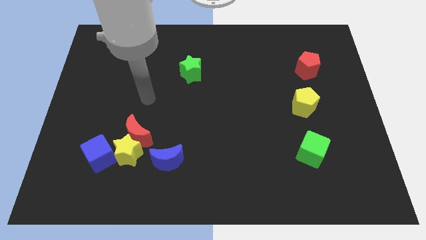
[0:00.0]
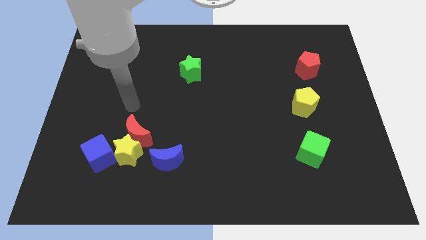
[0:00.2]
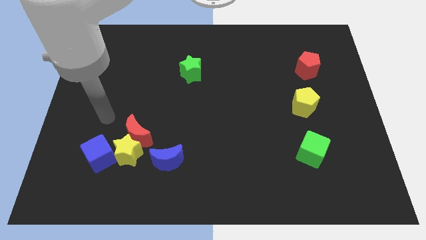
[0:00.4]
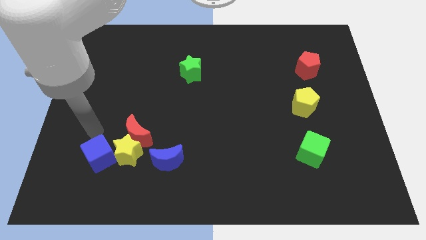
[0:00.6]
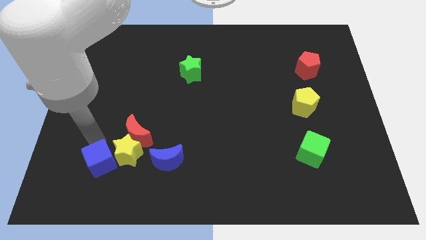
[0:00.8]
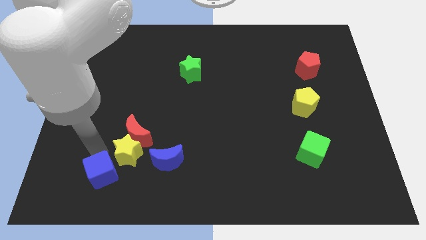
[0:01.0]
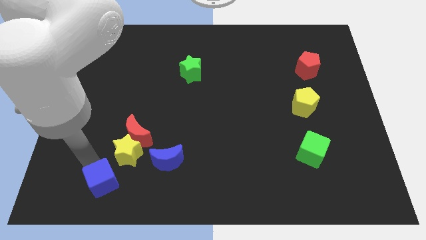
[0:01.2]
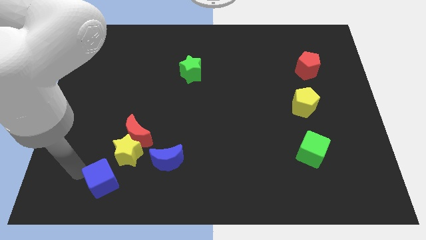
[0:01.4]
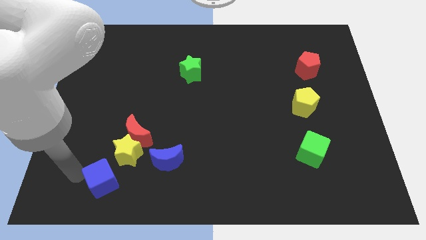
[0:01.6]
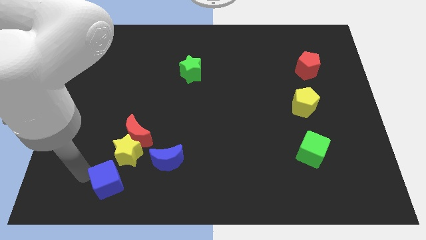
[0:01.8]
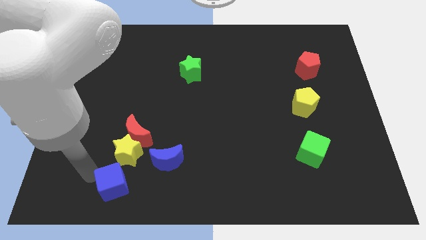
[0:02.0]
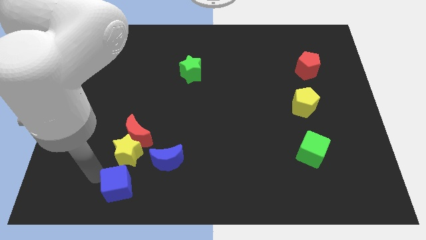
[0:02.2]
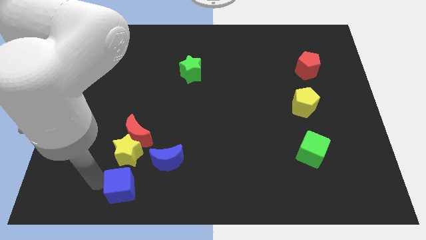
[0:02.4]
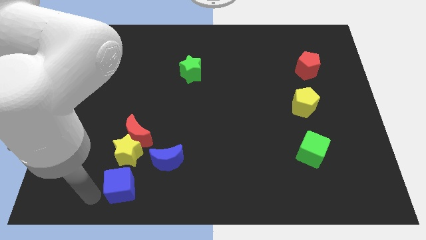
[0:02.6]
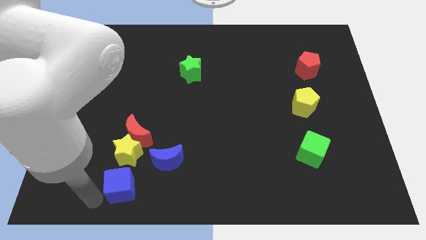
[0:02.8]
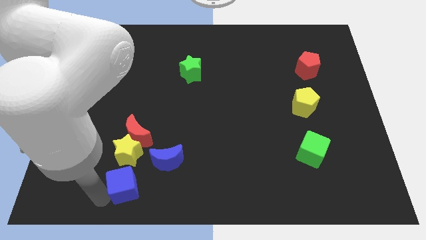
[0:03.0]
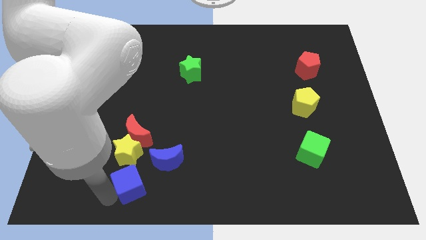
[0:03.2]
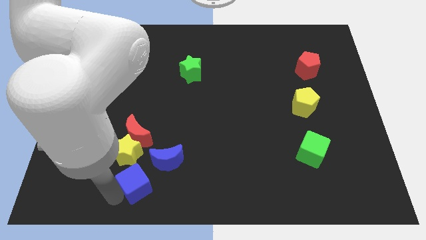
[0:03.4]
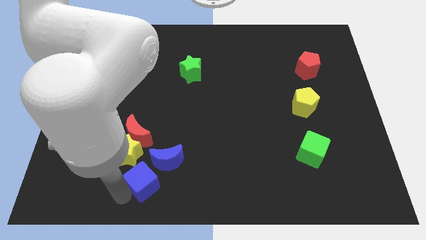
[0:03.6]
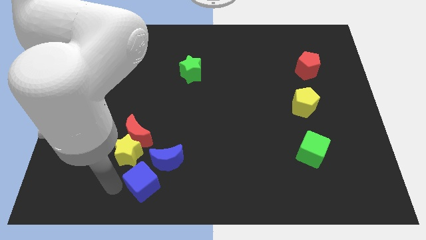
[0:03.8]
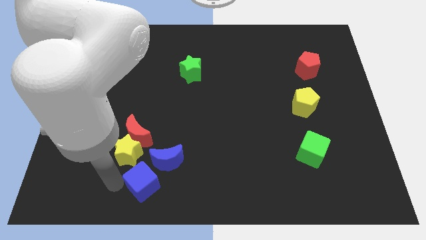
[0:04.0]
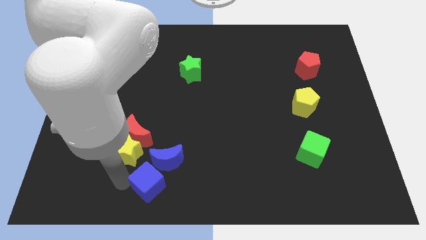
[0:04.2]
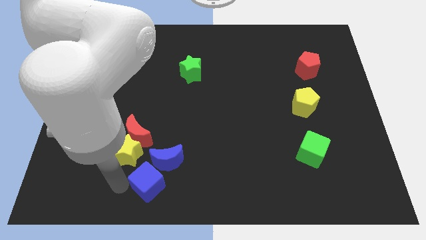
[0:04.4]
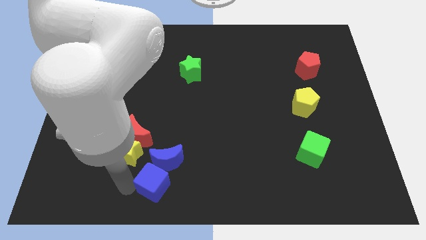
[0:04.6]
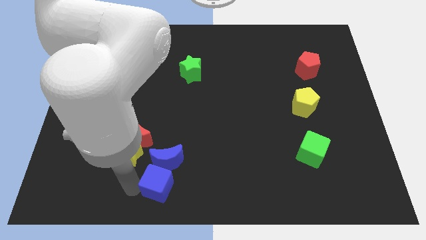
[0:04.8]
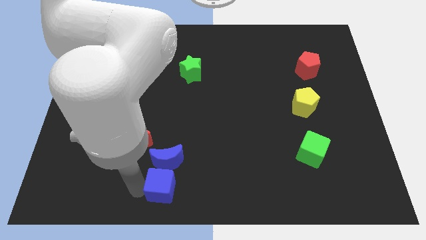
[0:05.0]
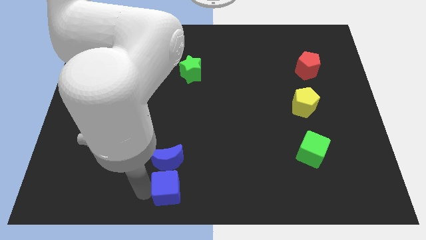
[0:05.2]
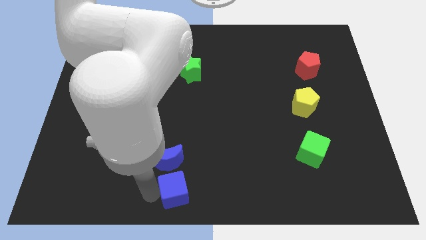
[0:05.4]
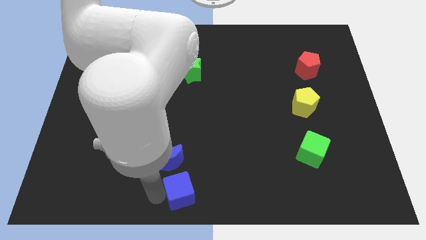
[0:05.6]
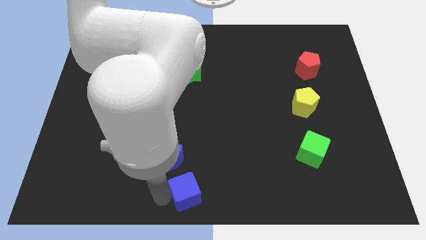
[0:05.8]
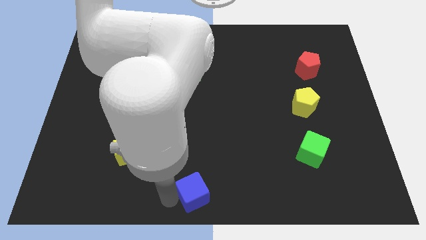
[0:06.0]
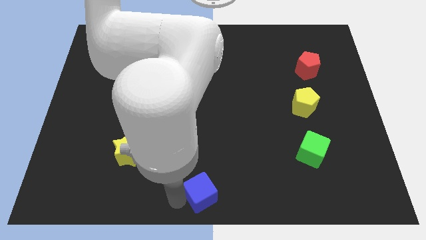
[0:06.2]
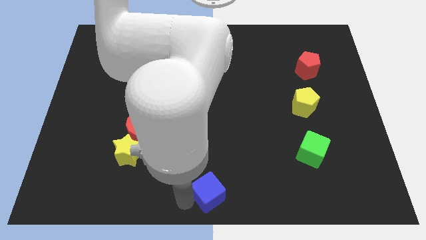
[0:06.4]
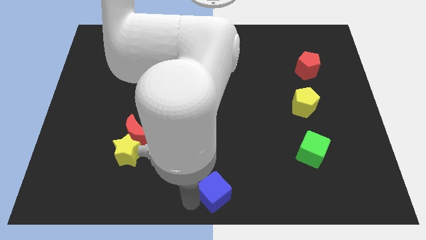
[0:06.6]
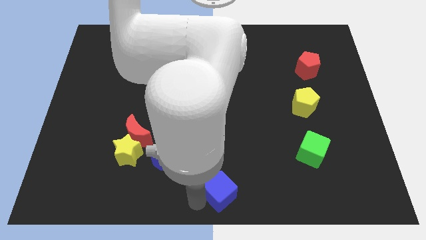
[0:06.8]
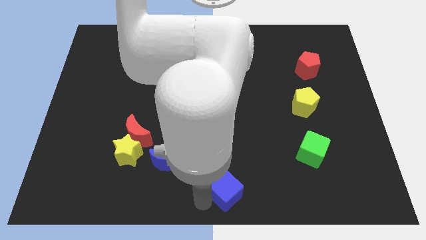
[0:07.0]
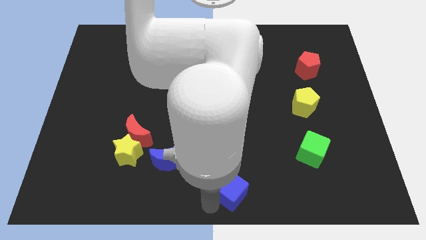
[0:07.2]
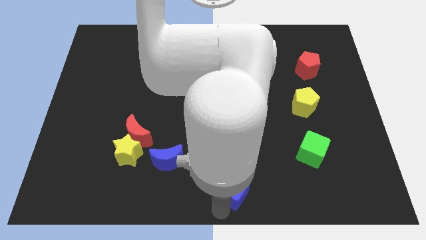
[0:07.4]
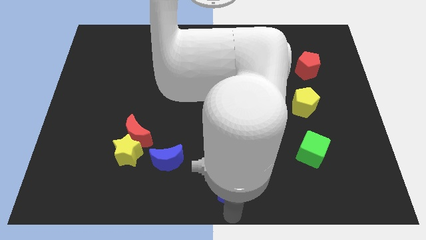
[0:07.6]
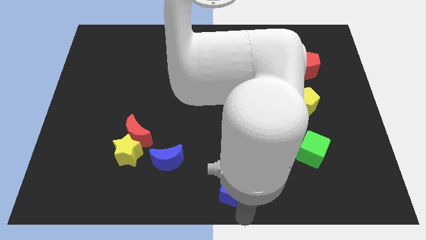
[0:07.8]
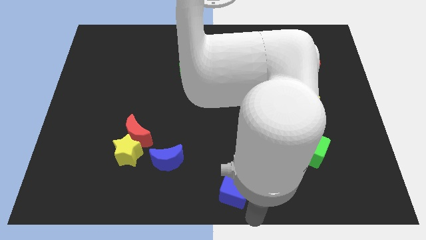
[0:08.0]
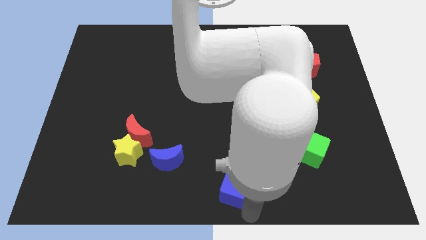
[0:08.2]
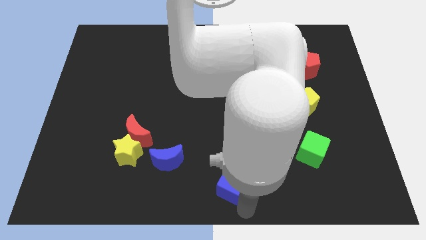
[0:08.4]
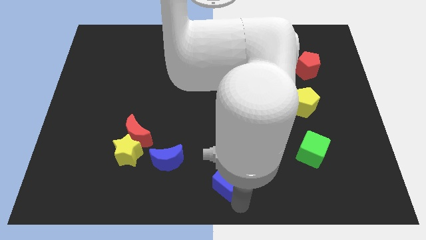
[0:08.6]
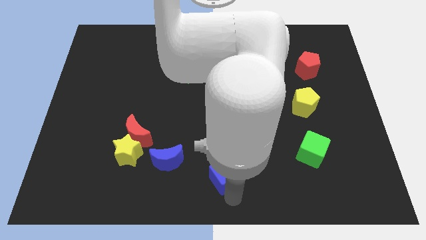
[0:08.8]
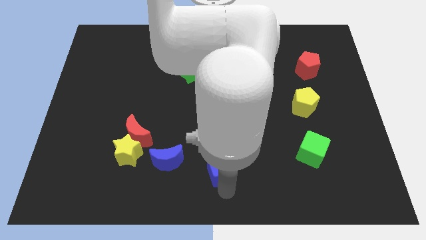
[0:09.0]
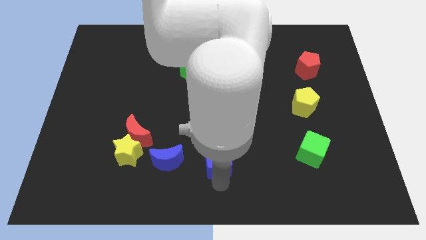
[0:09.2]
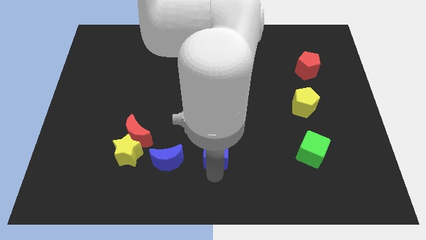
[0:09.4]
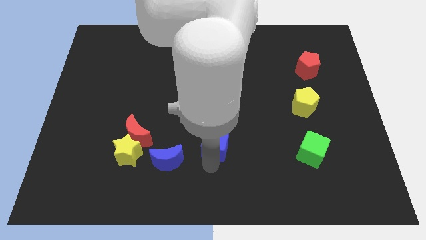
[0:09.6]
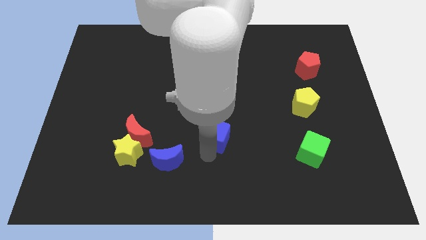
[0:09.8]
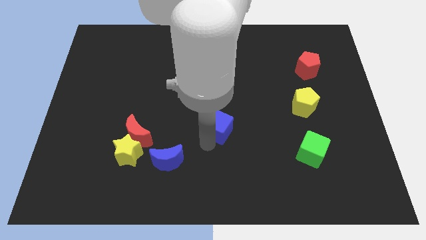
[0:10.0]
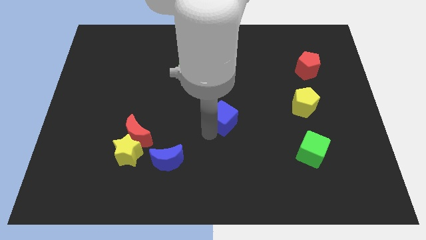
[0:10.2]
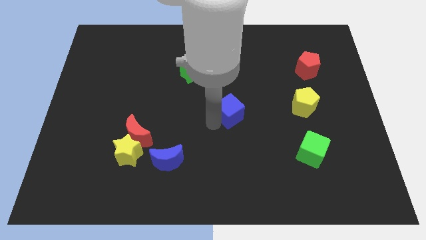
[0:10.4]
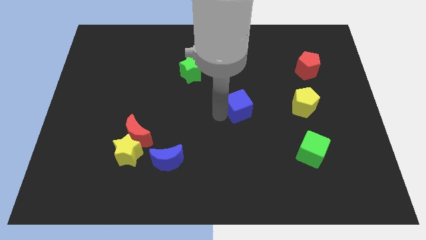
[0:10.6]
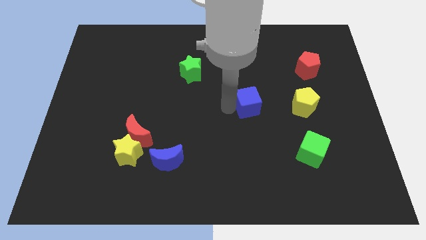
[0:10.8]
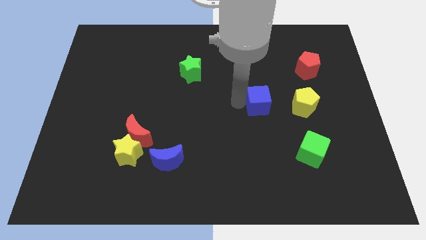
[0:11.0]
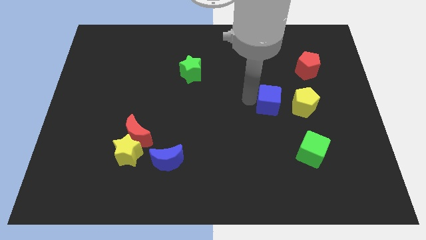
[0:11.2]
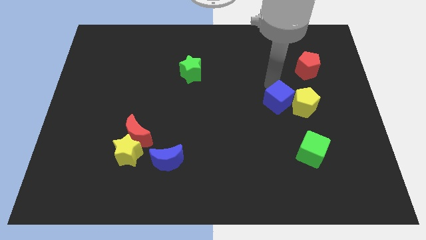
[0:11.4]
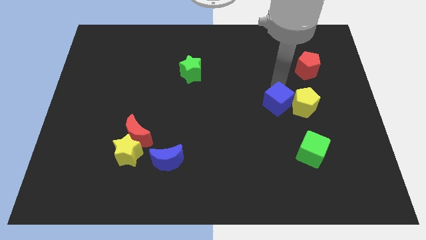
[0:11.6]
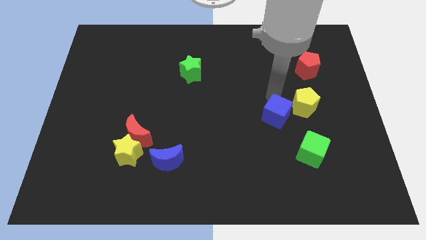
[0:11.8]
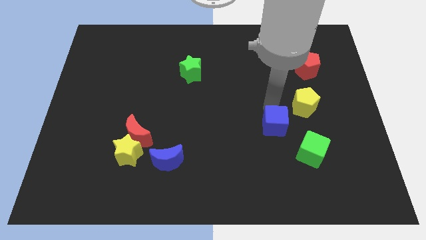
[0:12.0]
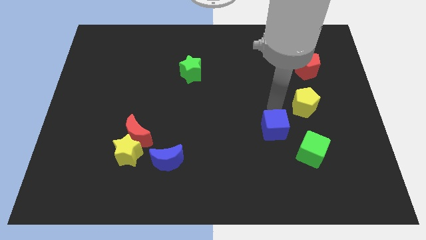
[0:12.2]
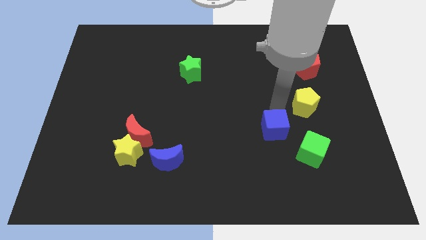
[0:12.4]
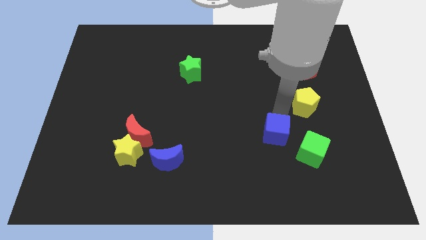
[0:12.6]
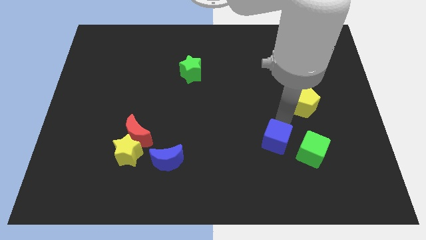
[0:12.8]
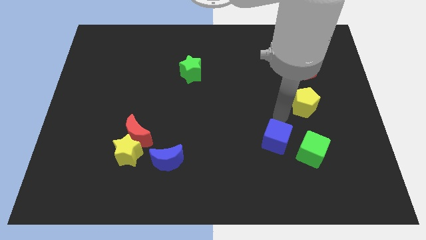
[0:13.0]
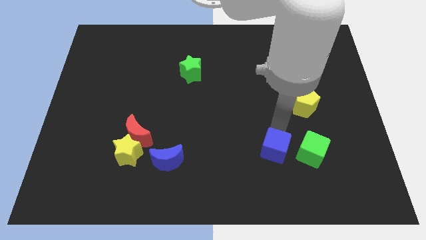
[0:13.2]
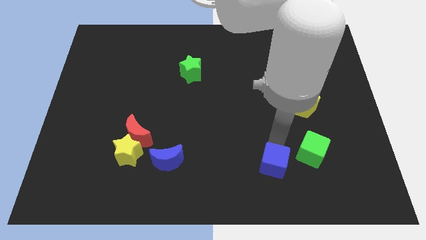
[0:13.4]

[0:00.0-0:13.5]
move the blue cube to the bottom left side of the green cube
